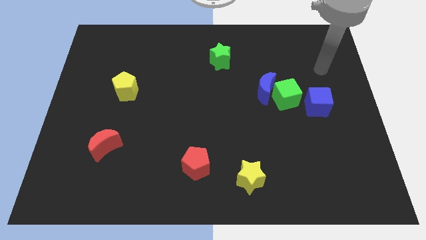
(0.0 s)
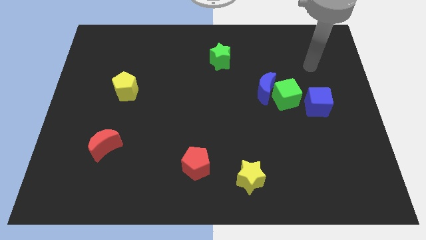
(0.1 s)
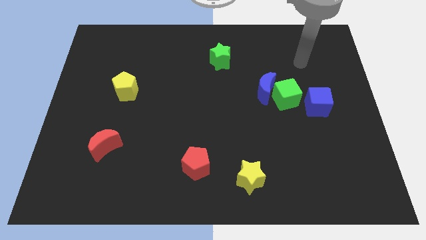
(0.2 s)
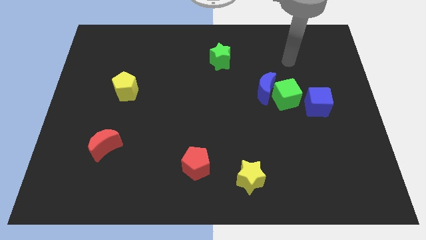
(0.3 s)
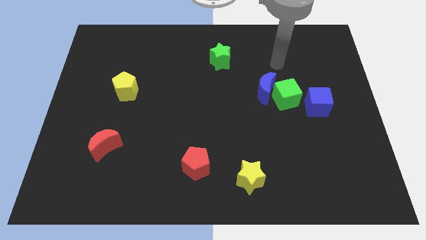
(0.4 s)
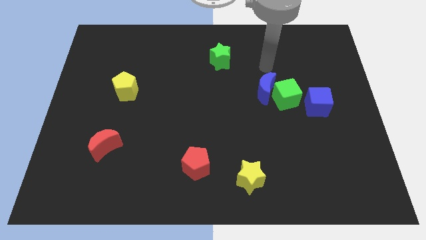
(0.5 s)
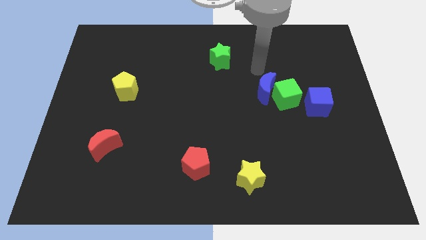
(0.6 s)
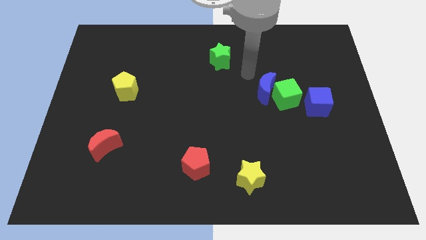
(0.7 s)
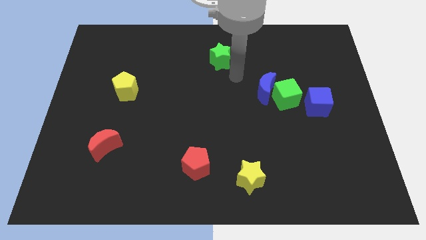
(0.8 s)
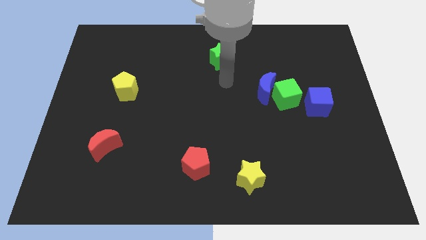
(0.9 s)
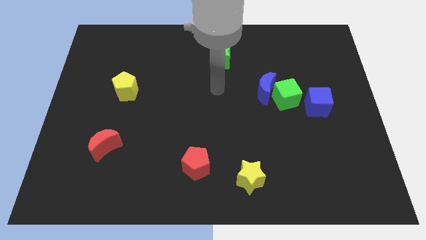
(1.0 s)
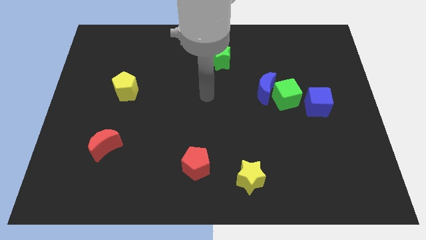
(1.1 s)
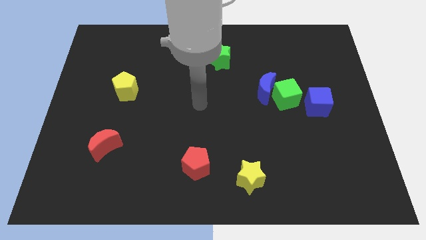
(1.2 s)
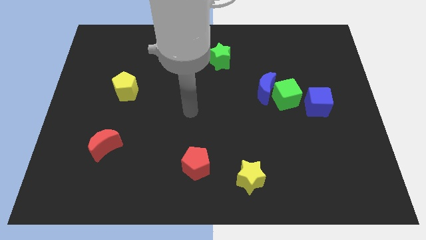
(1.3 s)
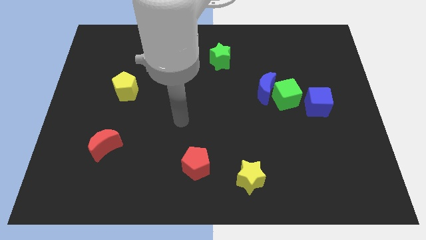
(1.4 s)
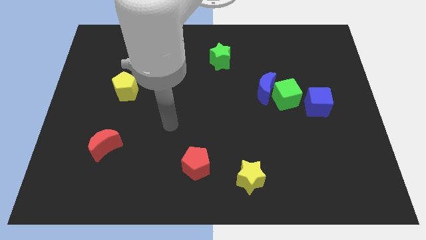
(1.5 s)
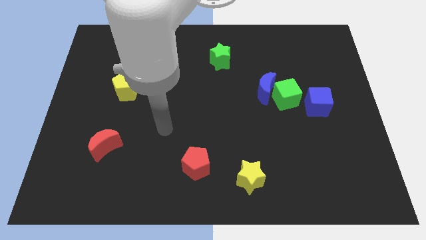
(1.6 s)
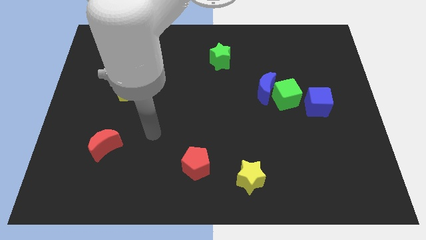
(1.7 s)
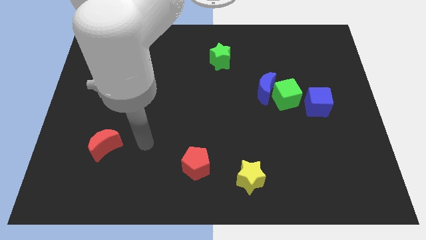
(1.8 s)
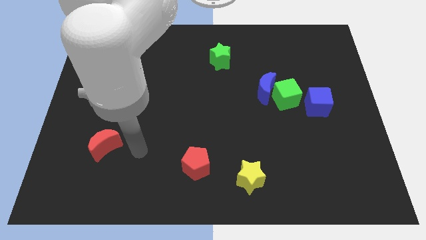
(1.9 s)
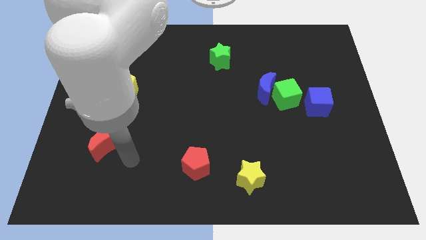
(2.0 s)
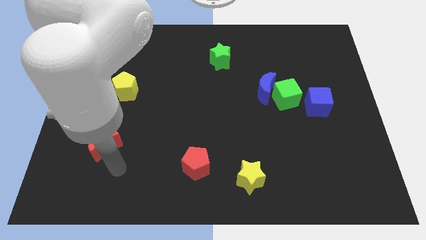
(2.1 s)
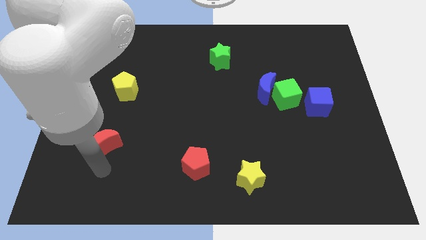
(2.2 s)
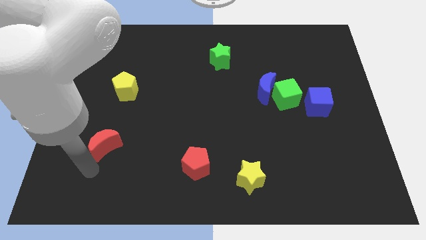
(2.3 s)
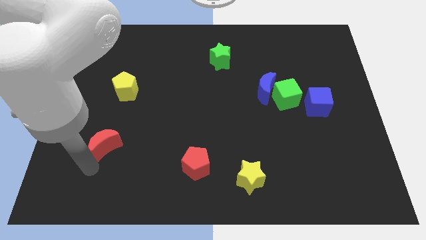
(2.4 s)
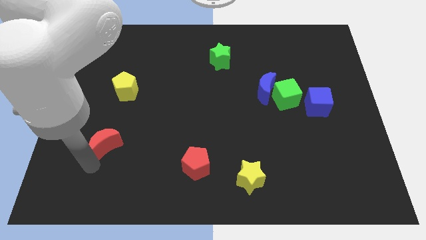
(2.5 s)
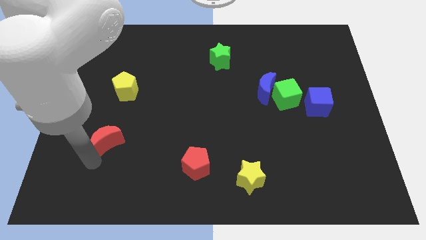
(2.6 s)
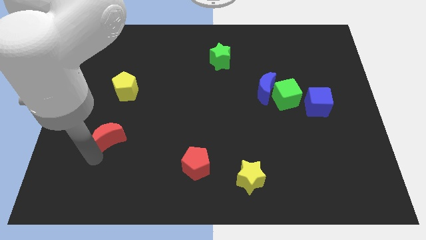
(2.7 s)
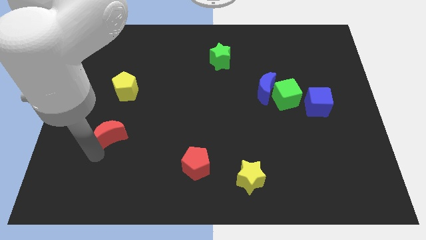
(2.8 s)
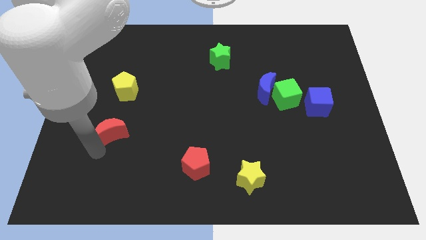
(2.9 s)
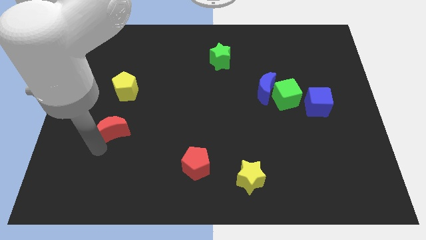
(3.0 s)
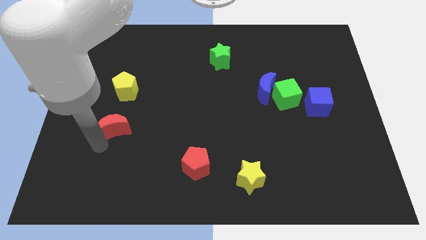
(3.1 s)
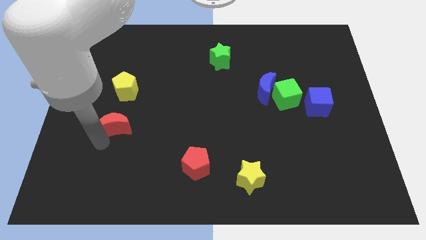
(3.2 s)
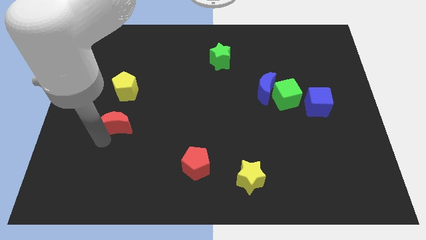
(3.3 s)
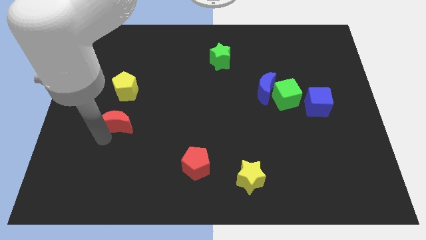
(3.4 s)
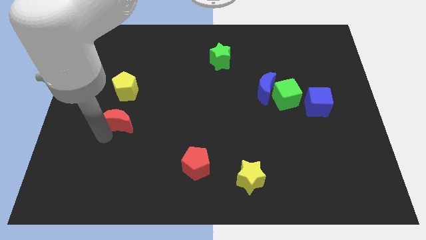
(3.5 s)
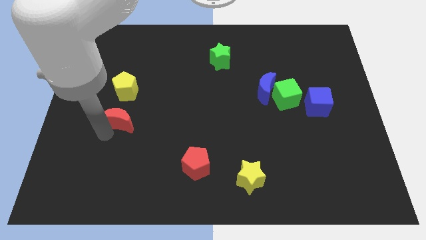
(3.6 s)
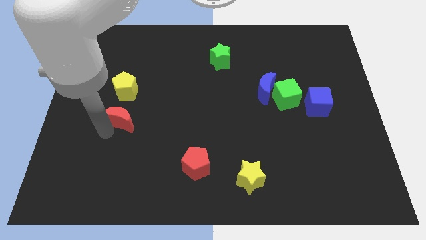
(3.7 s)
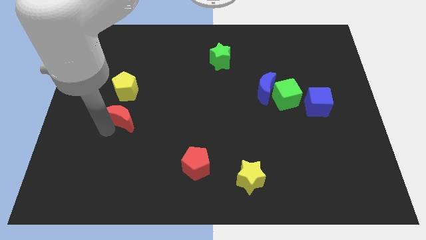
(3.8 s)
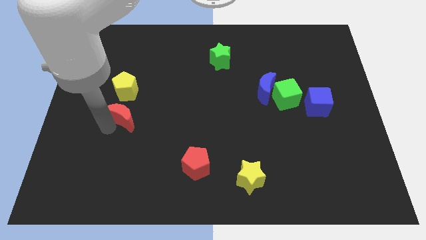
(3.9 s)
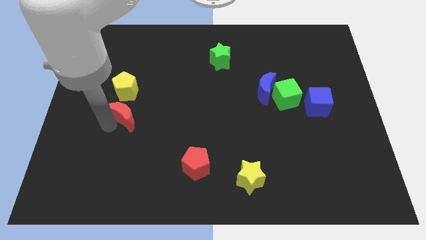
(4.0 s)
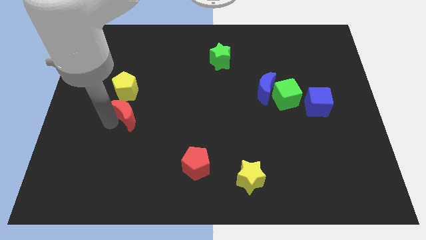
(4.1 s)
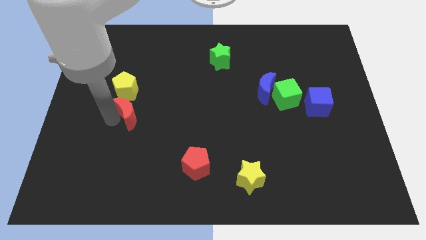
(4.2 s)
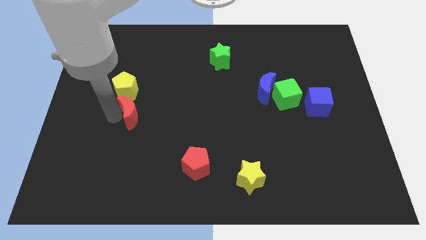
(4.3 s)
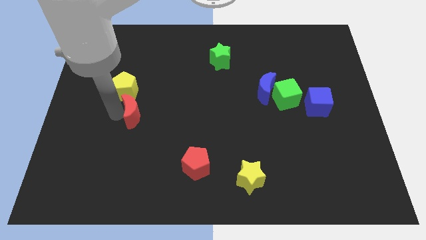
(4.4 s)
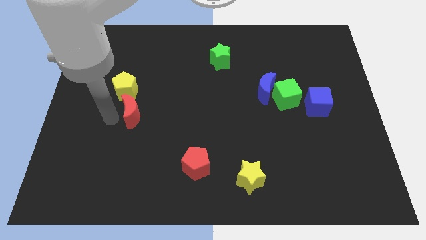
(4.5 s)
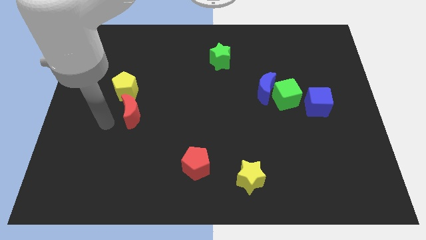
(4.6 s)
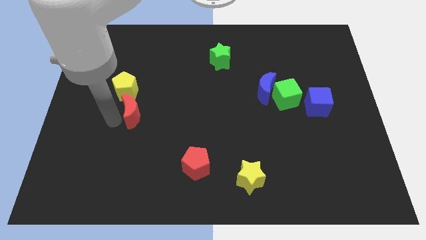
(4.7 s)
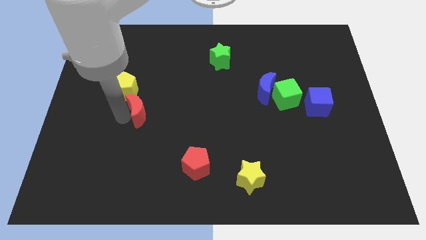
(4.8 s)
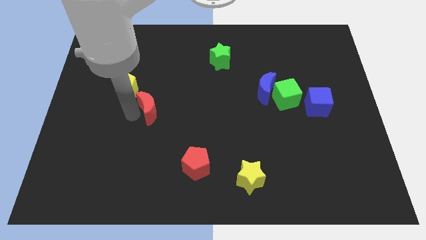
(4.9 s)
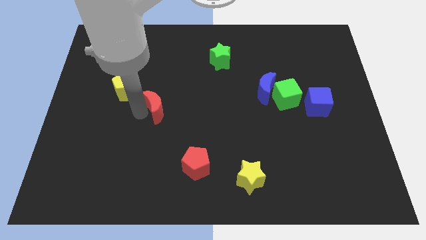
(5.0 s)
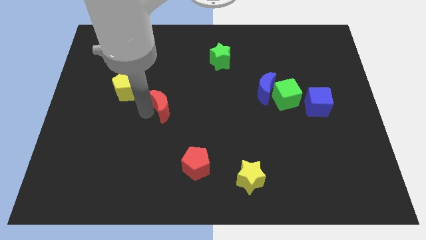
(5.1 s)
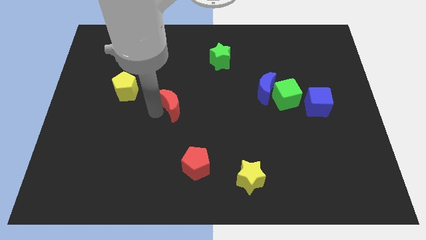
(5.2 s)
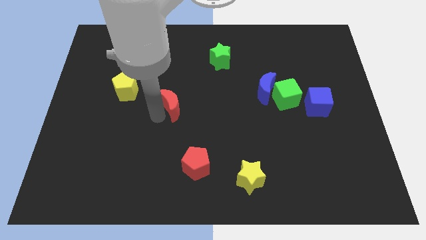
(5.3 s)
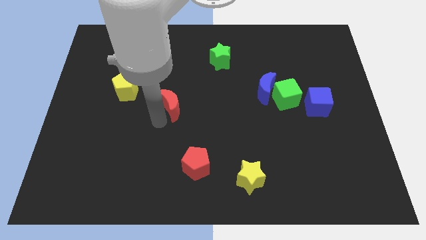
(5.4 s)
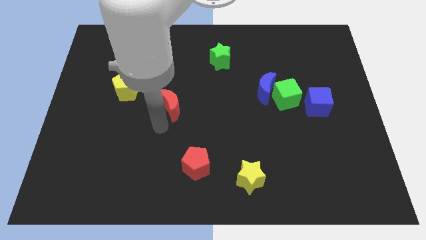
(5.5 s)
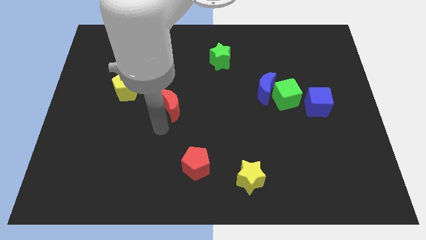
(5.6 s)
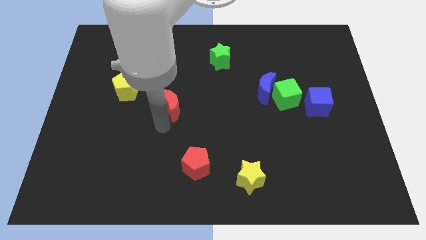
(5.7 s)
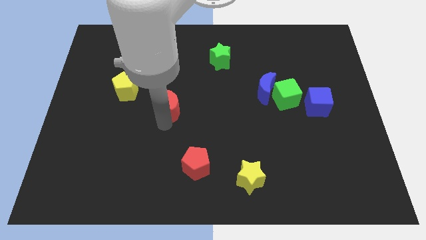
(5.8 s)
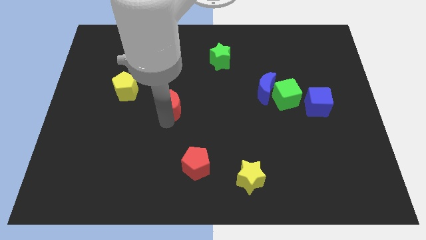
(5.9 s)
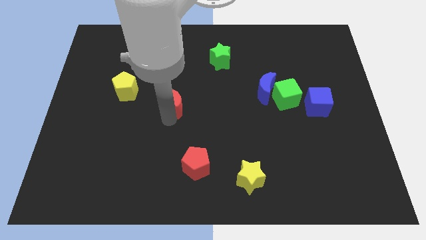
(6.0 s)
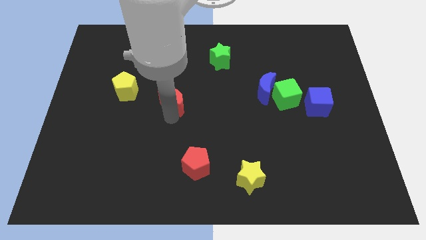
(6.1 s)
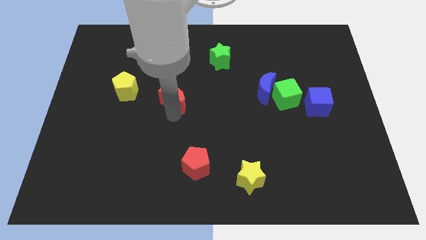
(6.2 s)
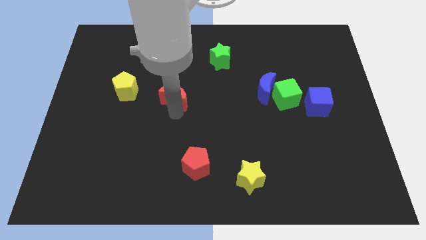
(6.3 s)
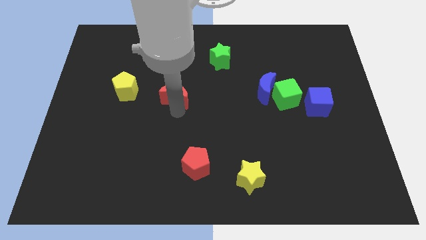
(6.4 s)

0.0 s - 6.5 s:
push the red moon up and to the right

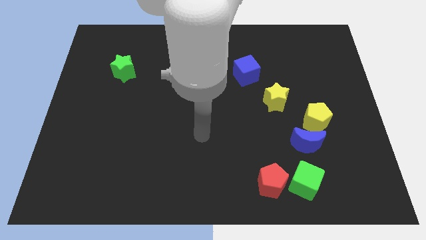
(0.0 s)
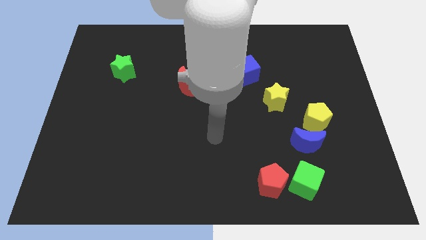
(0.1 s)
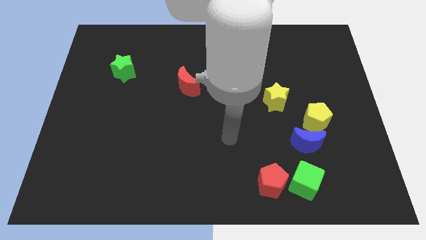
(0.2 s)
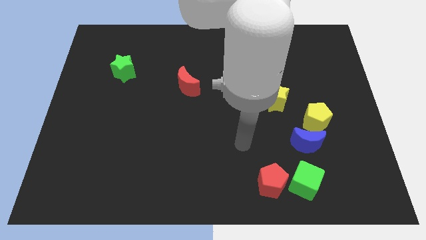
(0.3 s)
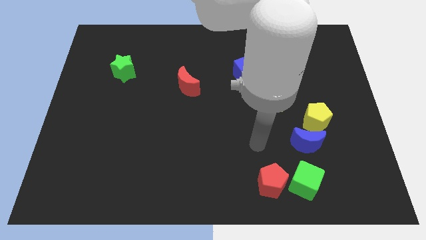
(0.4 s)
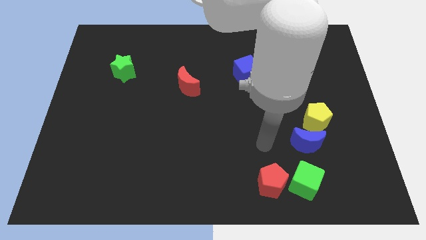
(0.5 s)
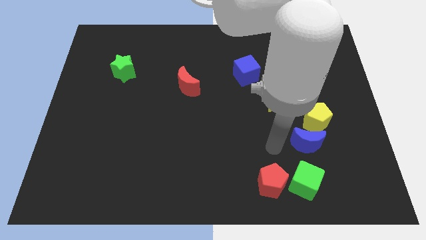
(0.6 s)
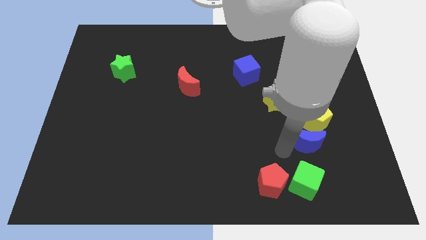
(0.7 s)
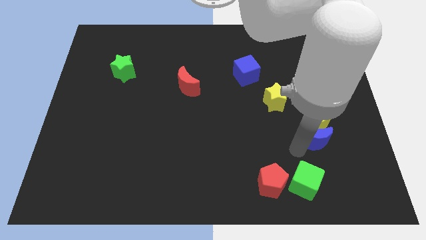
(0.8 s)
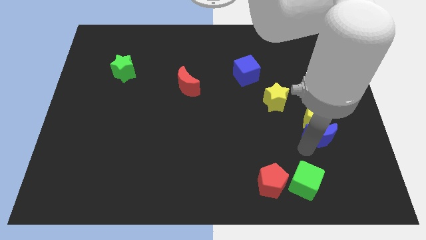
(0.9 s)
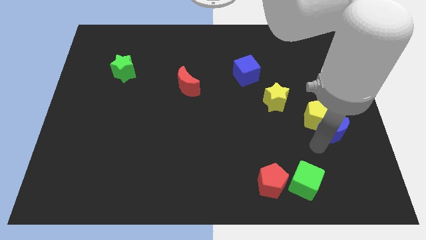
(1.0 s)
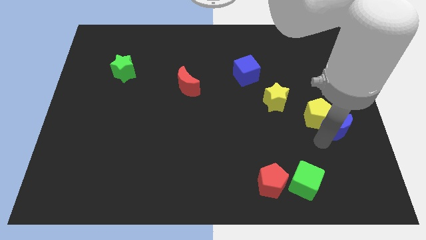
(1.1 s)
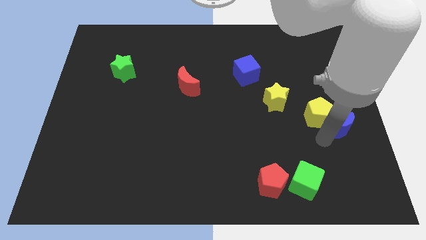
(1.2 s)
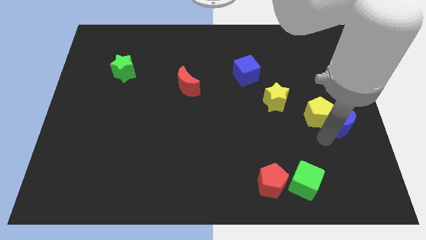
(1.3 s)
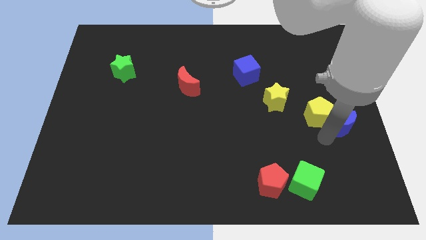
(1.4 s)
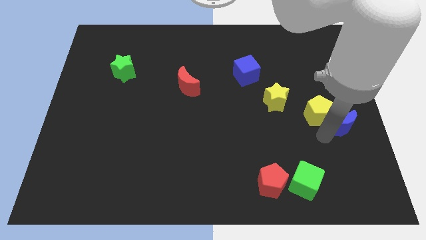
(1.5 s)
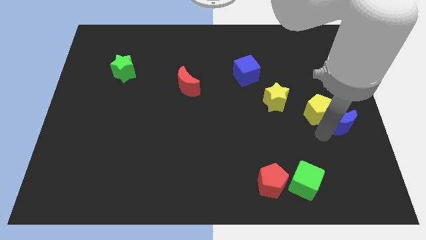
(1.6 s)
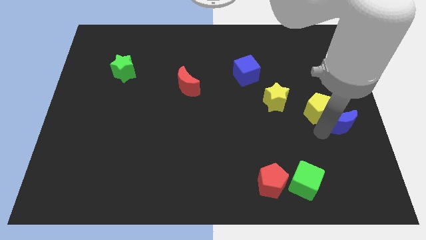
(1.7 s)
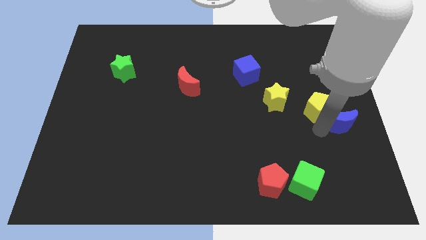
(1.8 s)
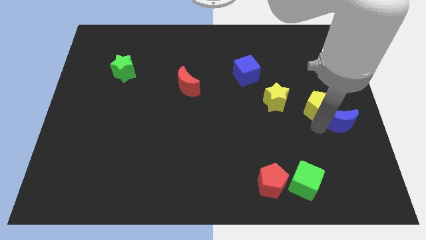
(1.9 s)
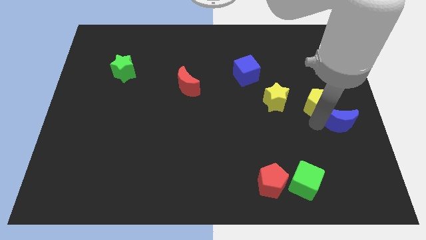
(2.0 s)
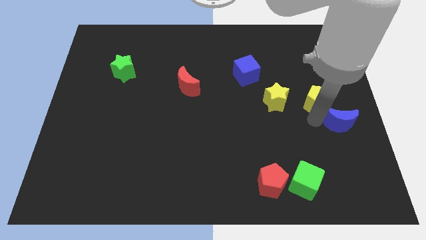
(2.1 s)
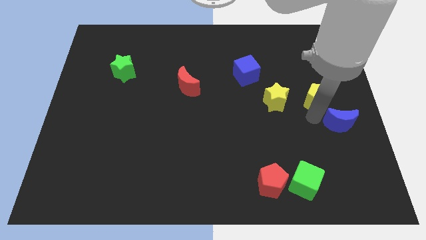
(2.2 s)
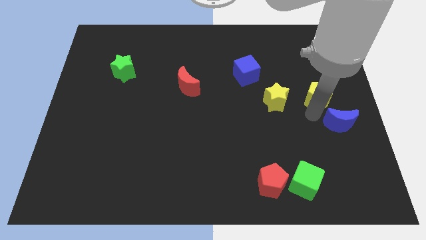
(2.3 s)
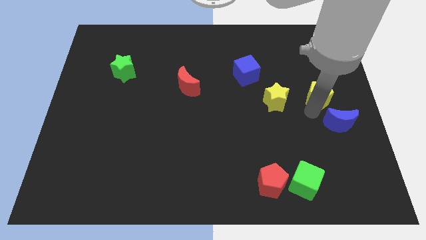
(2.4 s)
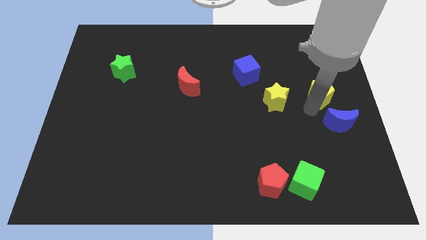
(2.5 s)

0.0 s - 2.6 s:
slide the yellow pentagon a little up
